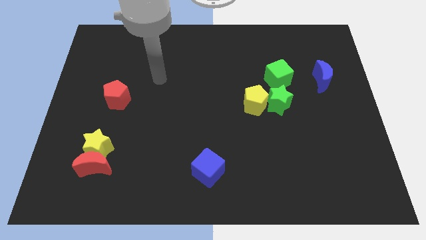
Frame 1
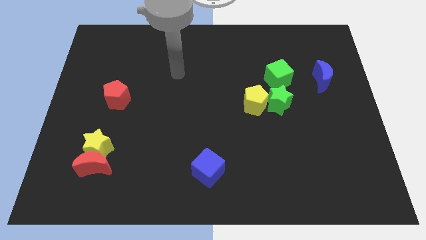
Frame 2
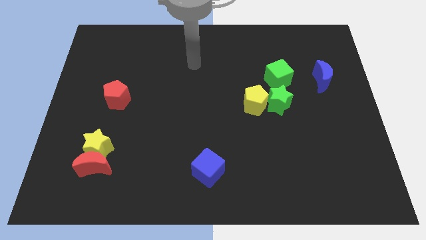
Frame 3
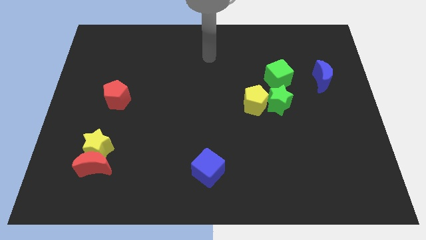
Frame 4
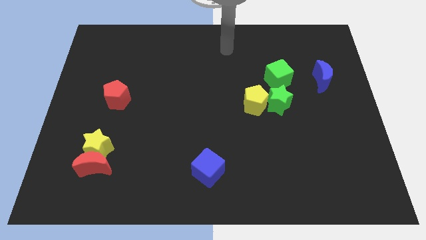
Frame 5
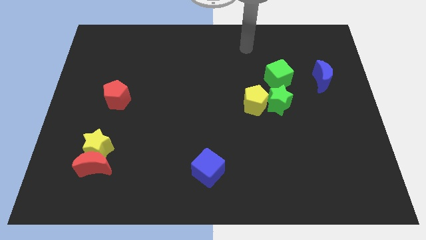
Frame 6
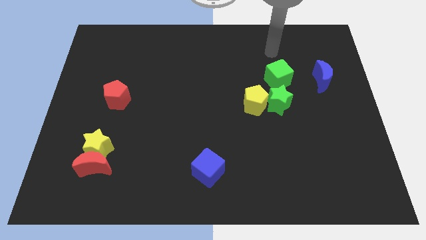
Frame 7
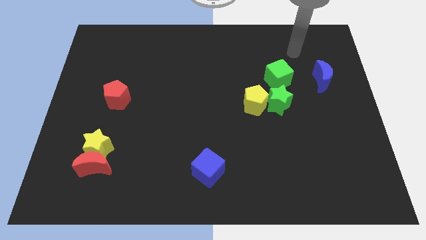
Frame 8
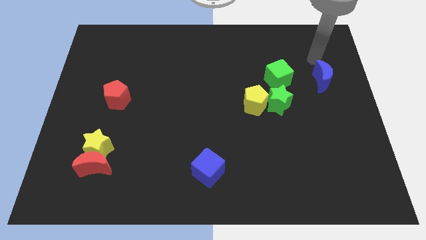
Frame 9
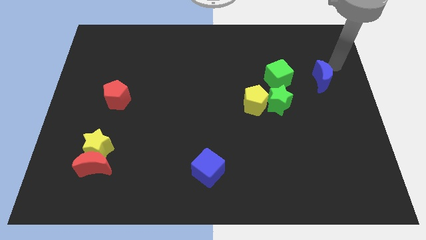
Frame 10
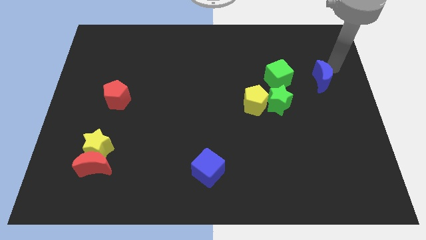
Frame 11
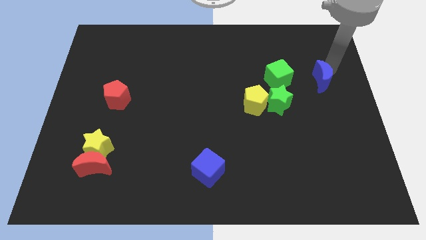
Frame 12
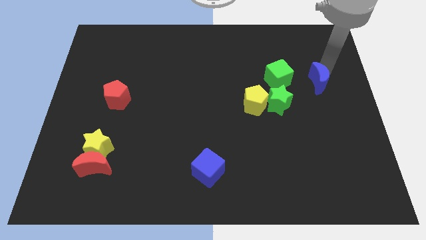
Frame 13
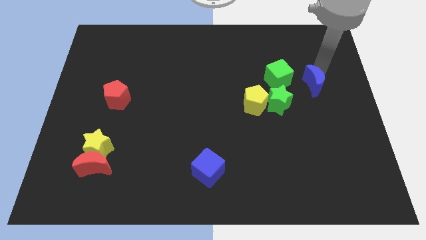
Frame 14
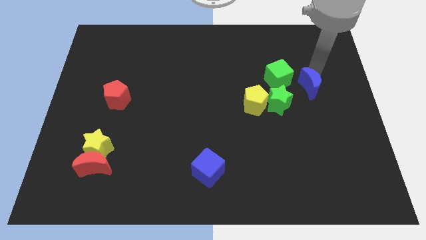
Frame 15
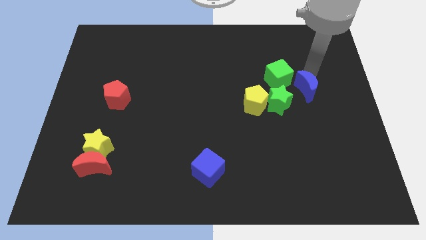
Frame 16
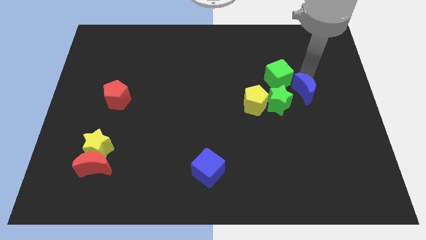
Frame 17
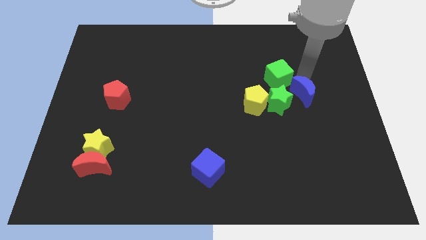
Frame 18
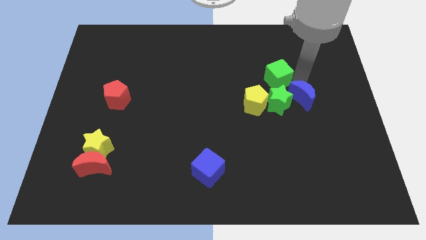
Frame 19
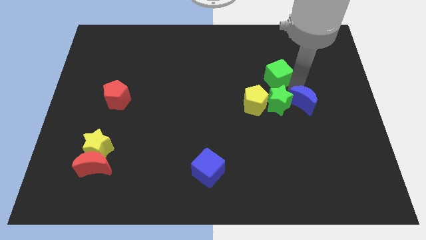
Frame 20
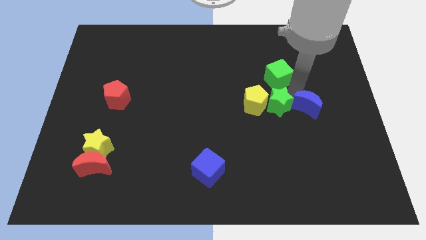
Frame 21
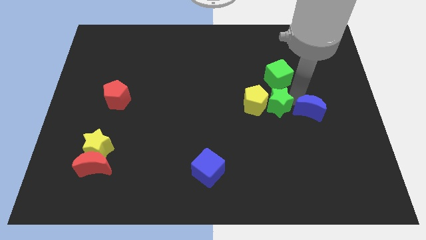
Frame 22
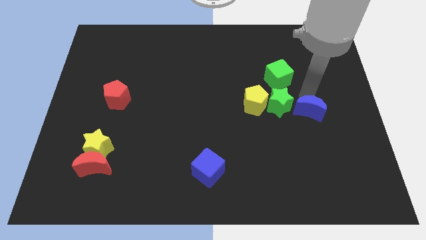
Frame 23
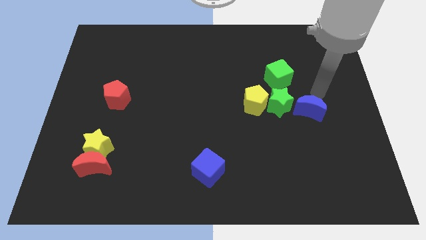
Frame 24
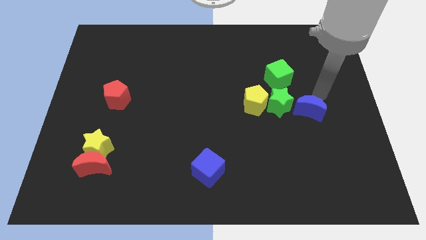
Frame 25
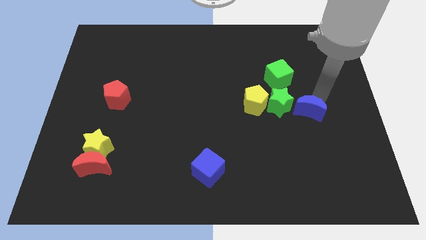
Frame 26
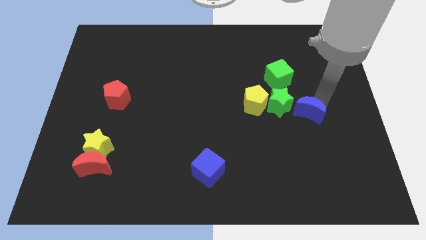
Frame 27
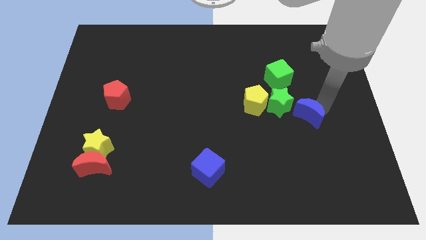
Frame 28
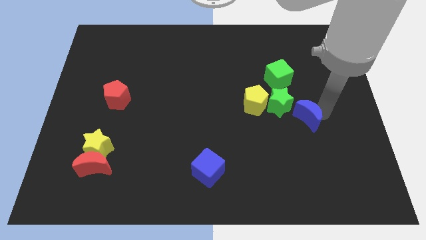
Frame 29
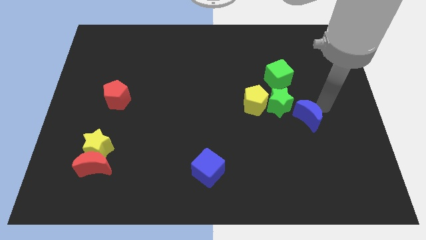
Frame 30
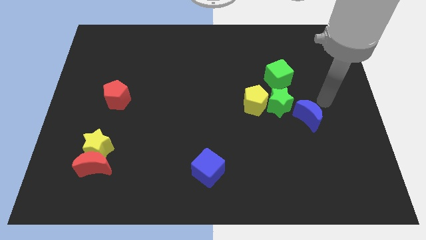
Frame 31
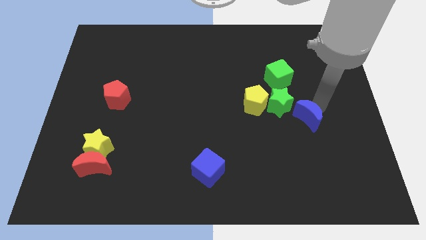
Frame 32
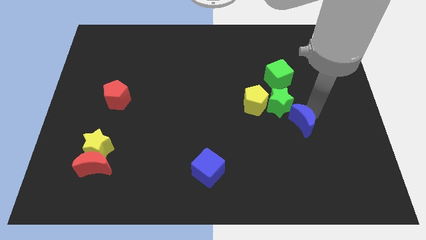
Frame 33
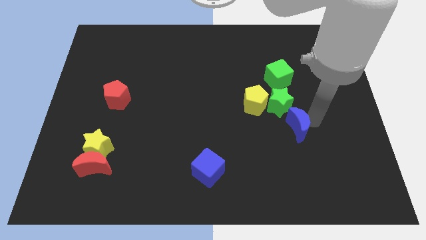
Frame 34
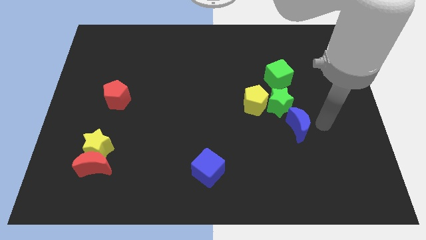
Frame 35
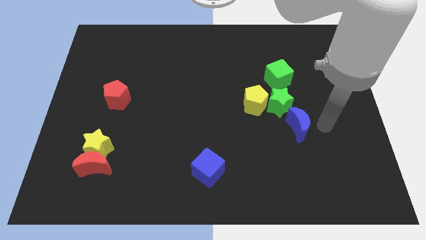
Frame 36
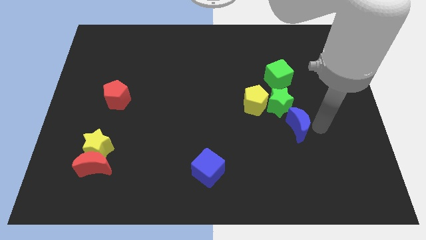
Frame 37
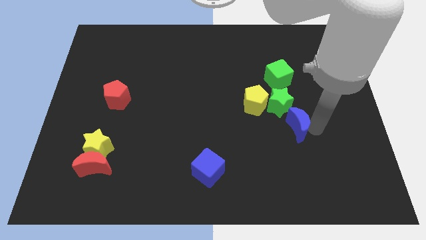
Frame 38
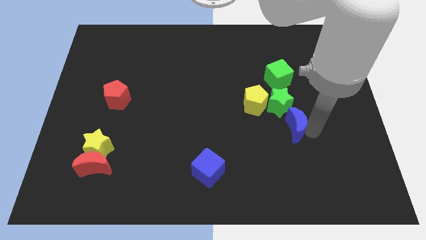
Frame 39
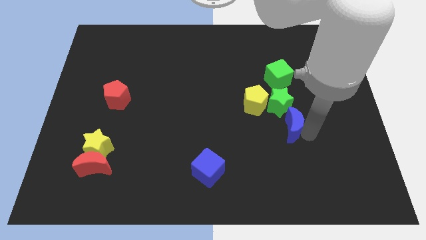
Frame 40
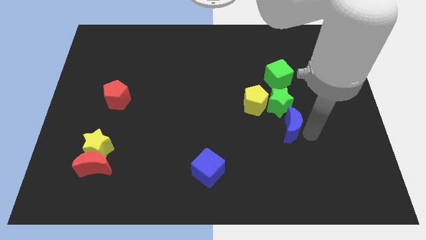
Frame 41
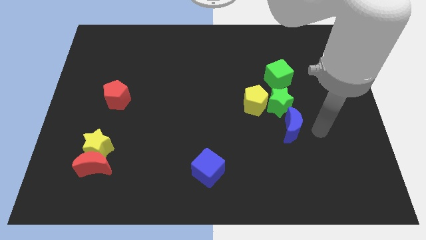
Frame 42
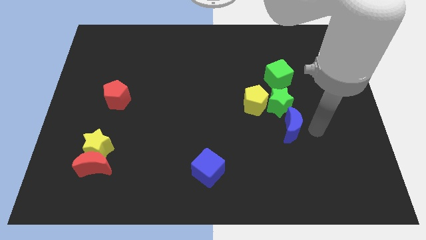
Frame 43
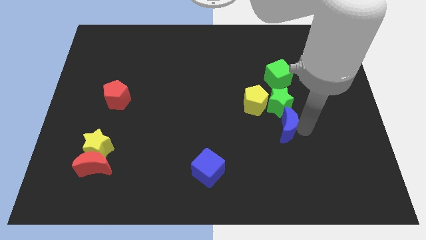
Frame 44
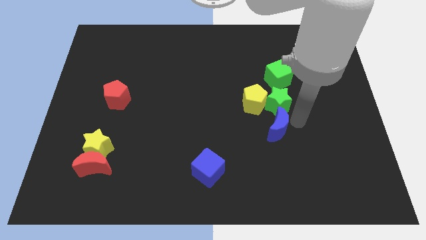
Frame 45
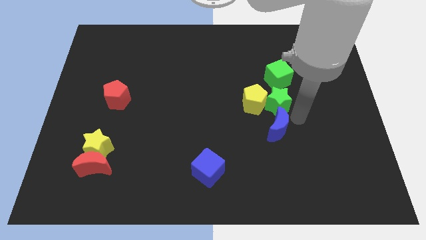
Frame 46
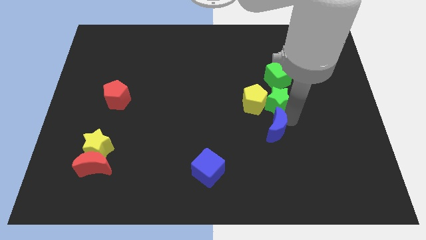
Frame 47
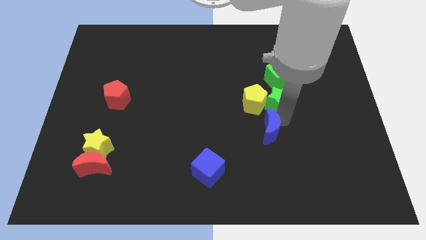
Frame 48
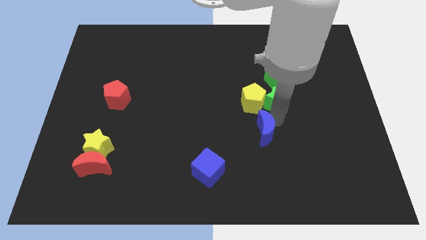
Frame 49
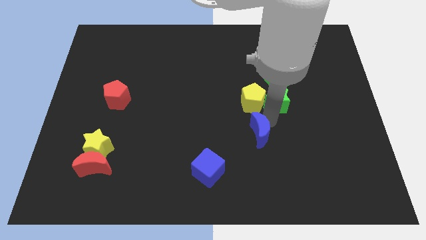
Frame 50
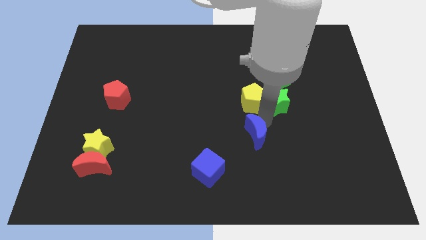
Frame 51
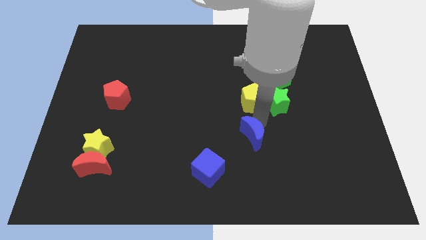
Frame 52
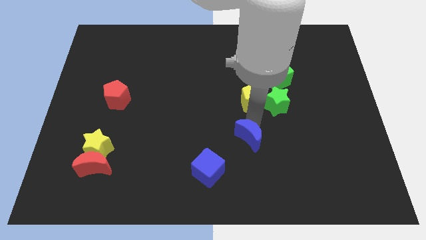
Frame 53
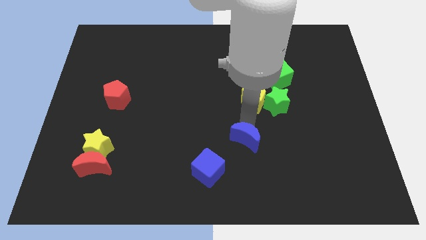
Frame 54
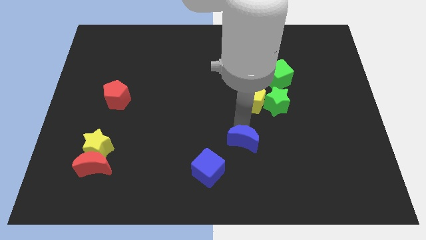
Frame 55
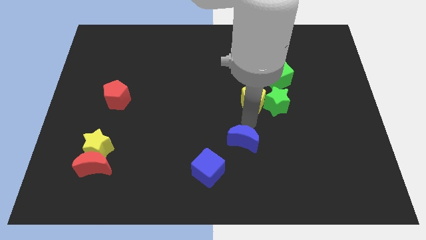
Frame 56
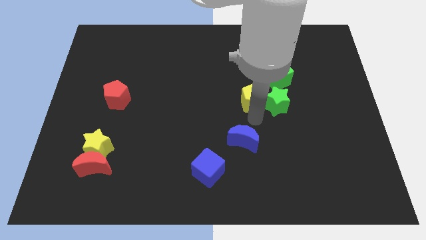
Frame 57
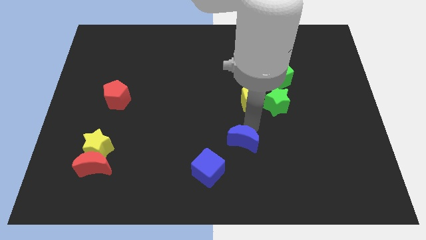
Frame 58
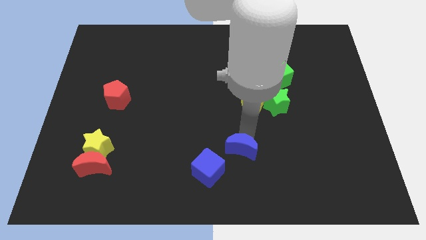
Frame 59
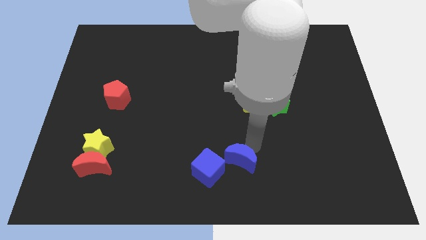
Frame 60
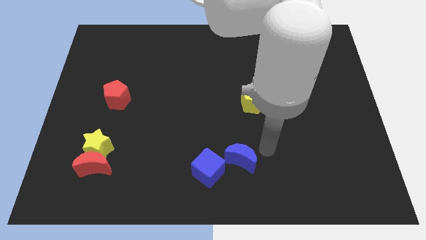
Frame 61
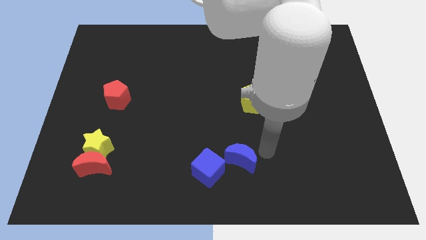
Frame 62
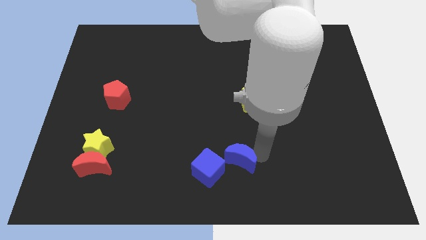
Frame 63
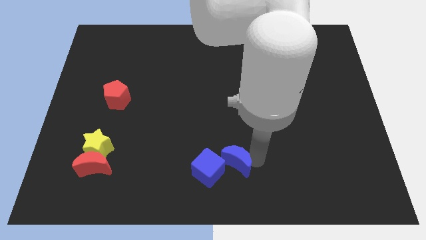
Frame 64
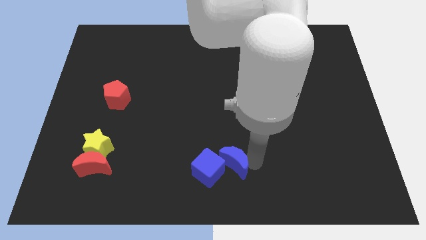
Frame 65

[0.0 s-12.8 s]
push the blue moon towards the blue cube
